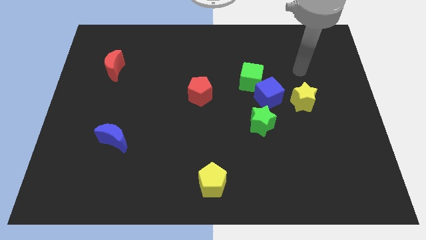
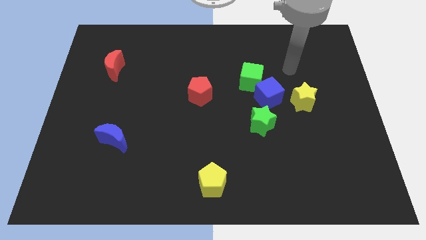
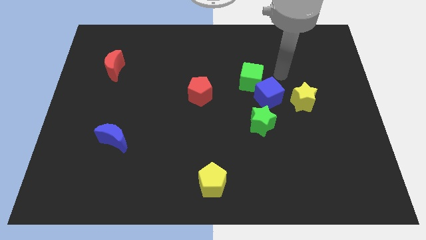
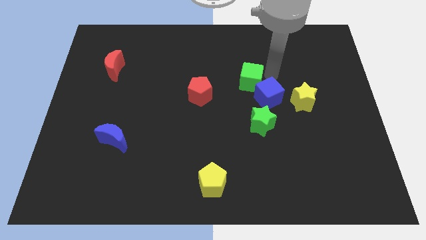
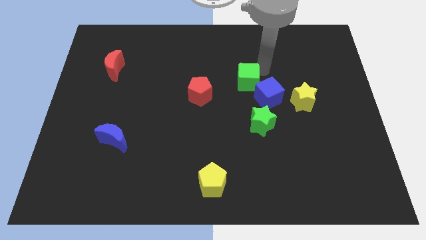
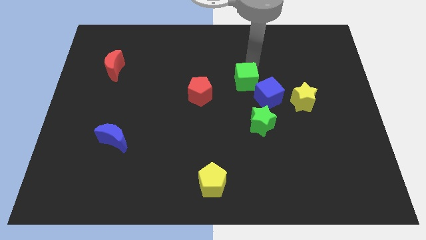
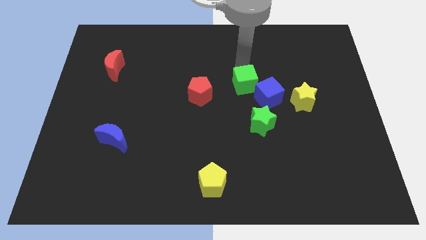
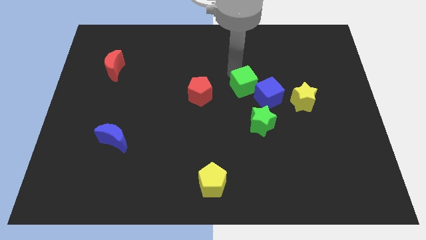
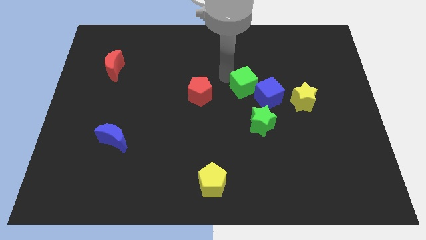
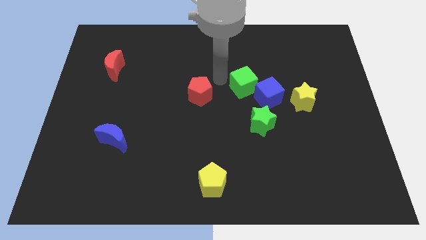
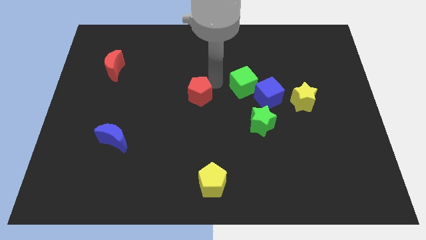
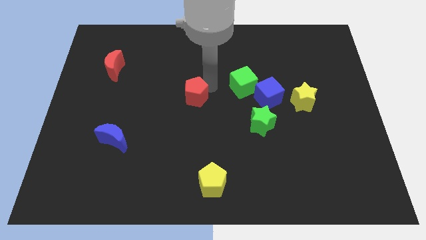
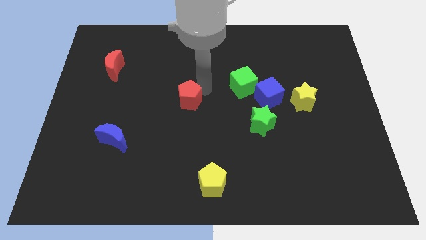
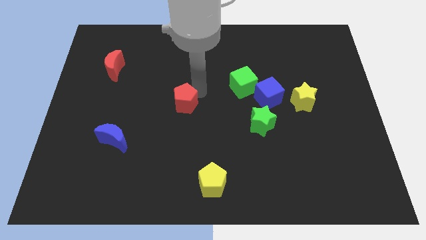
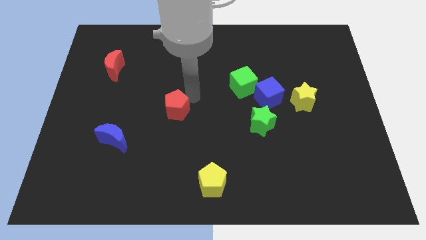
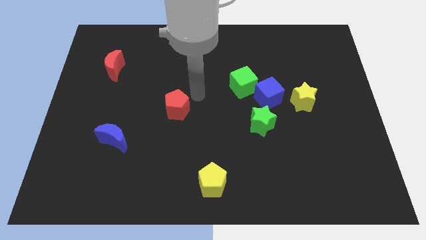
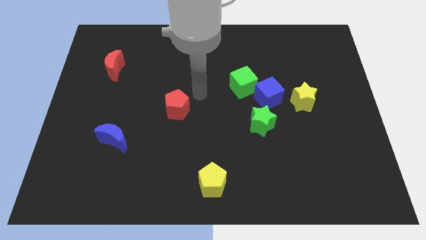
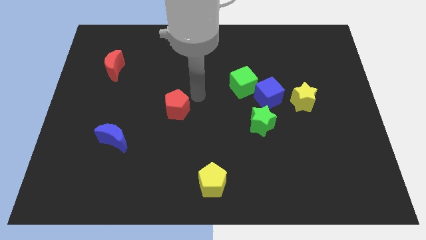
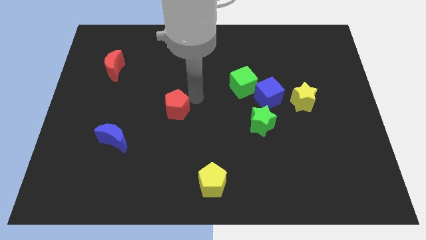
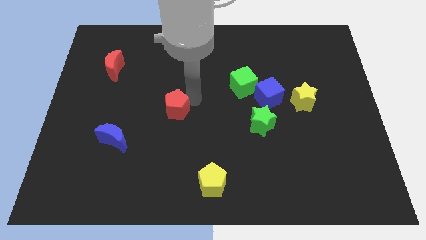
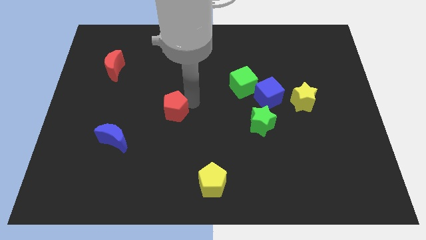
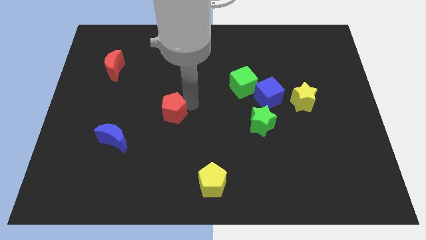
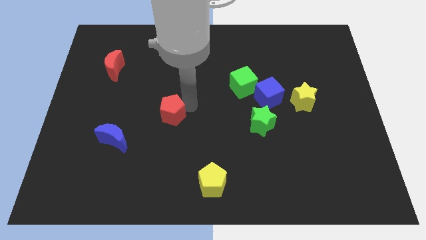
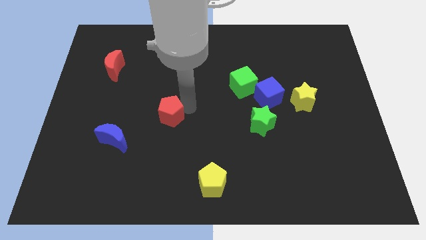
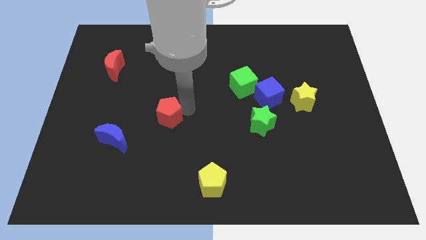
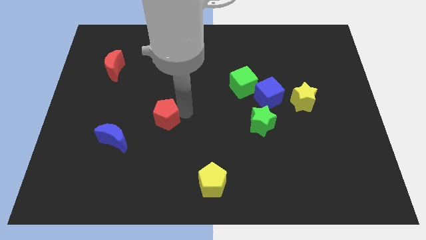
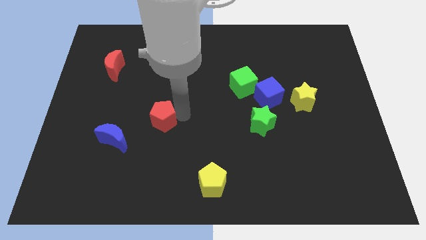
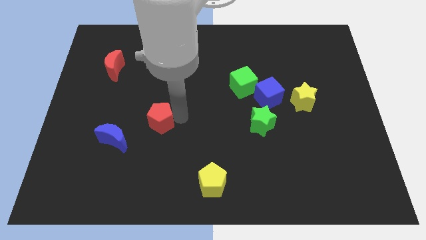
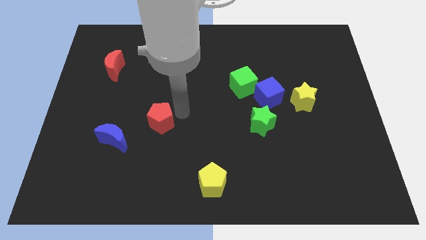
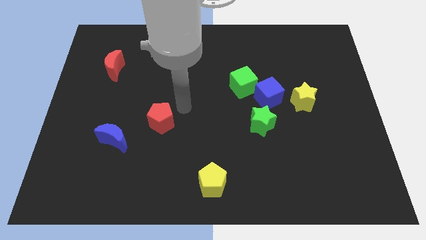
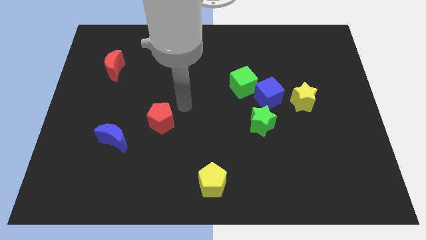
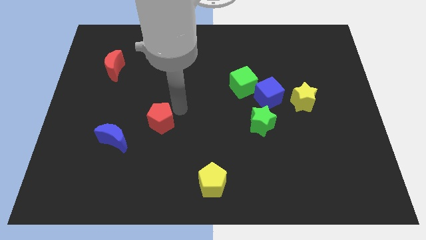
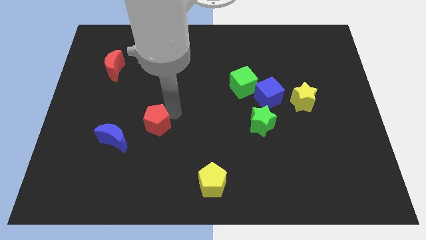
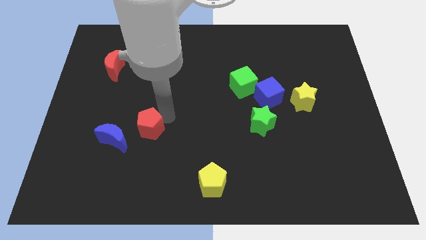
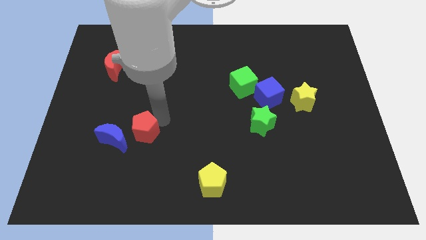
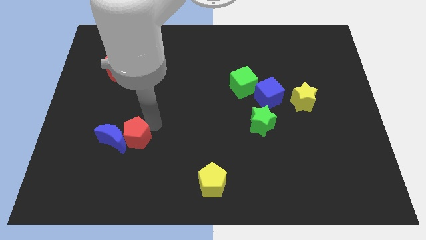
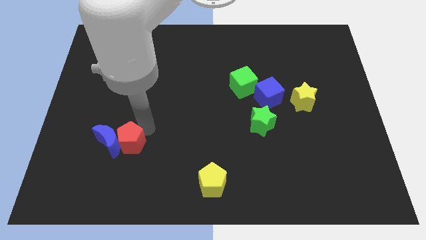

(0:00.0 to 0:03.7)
move the red pentagon diagonally down and left

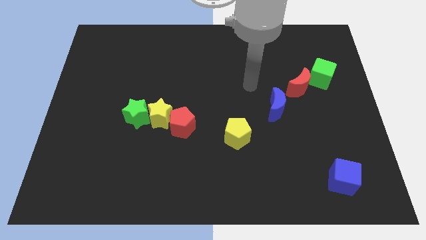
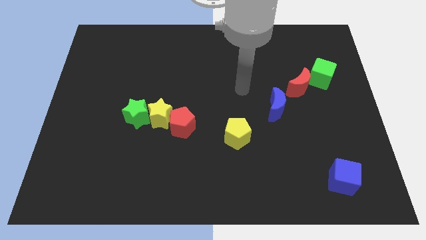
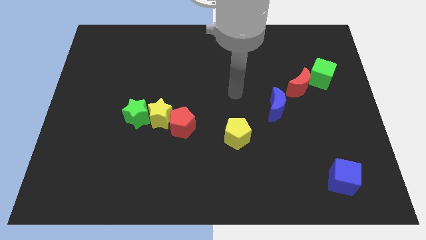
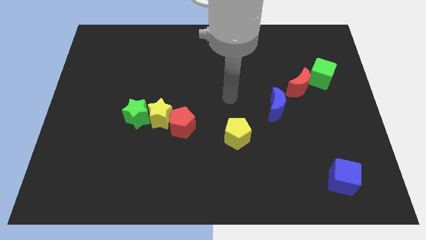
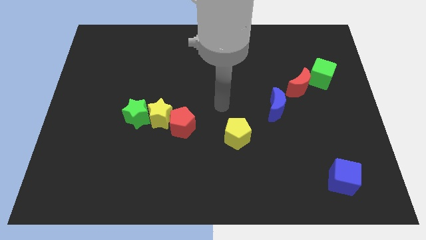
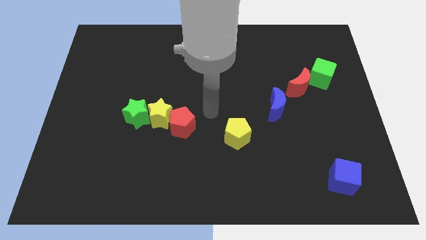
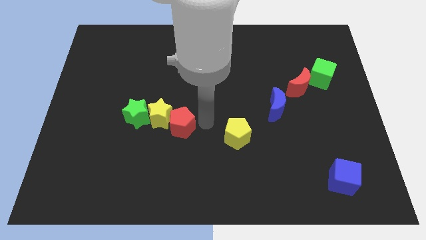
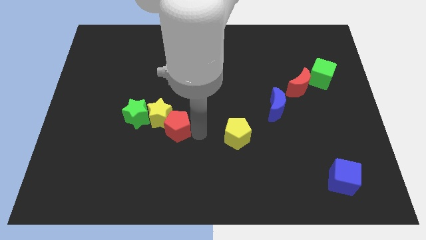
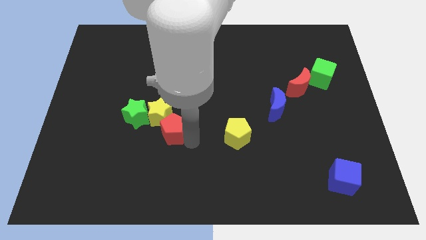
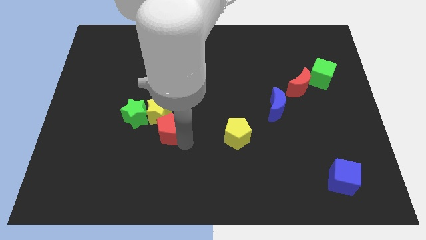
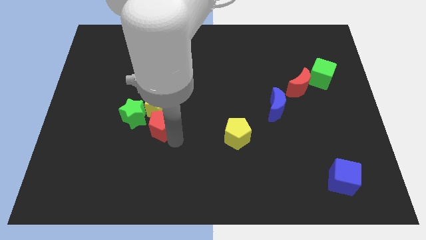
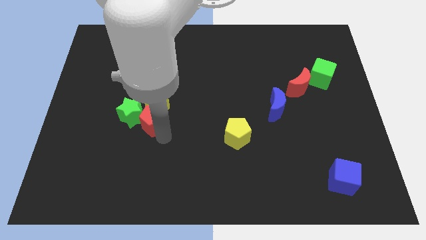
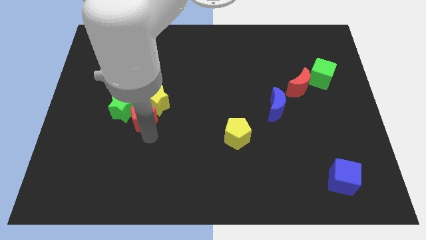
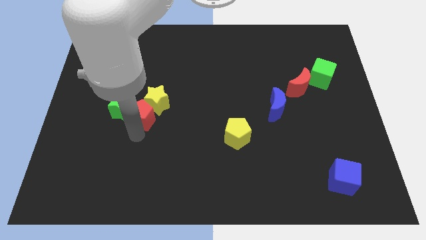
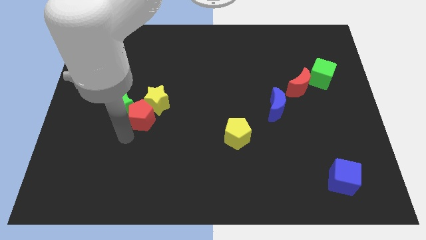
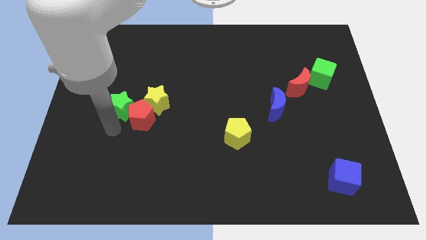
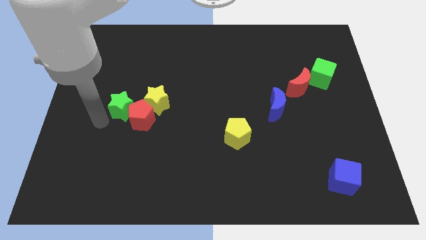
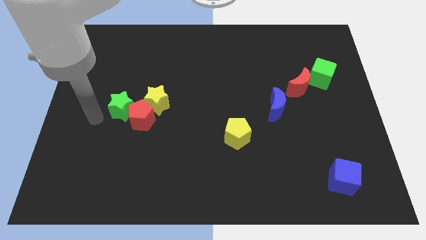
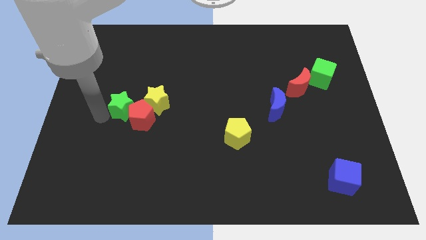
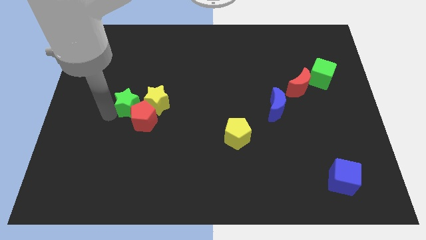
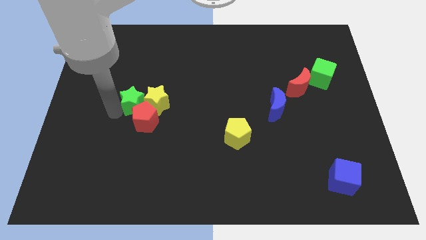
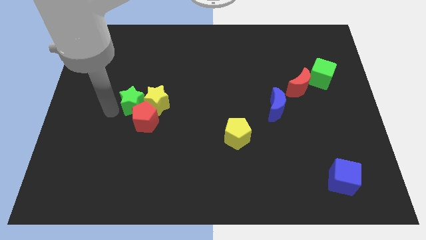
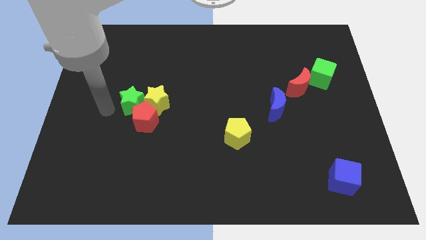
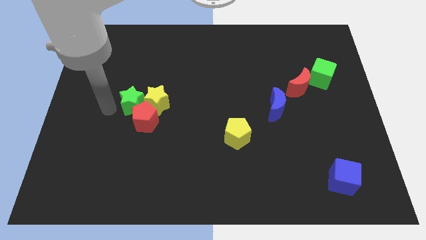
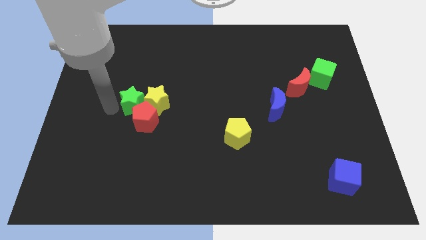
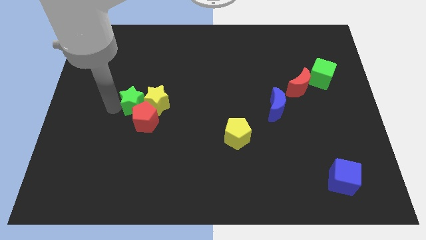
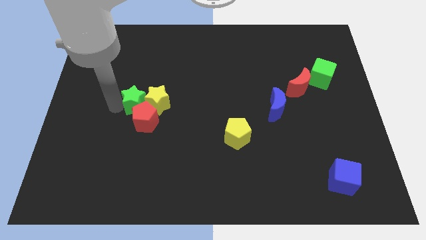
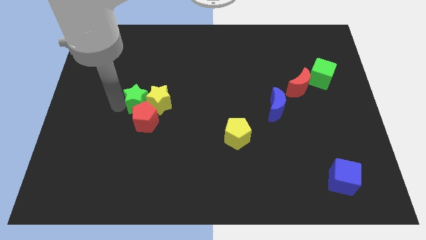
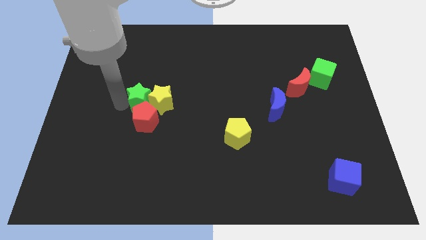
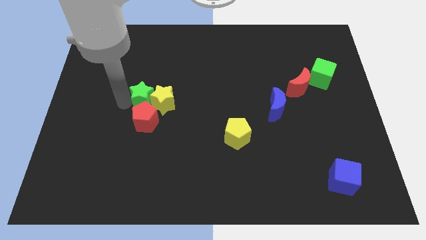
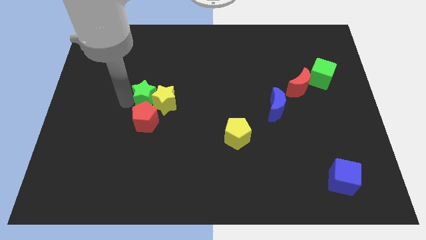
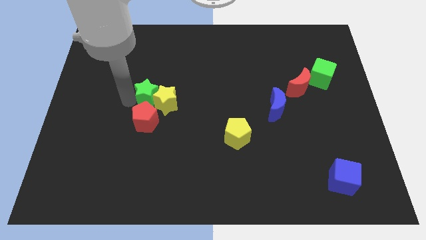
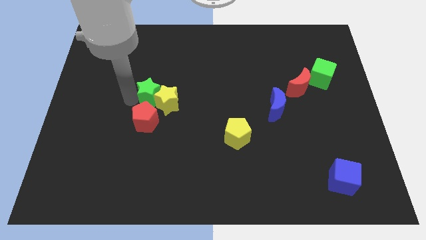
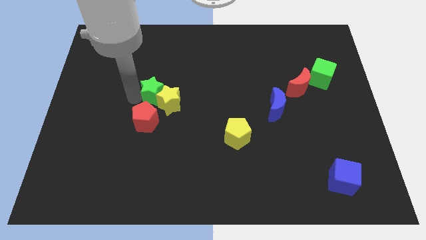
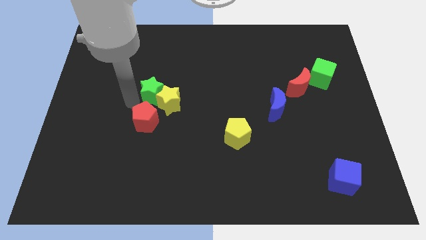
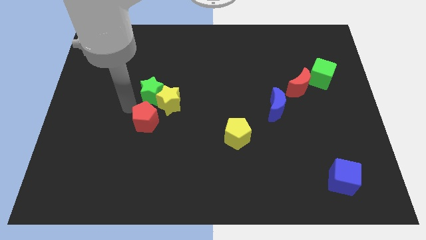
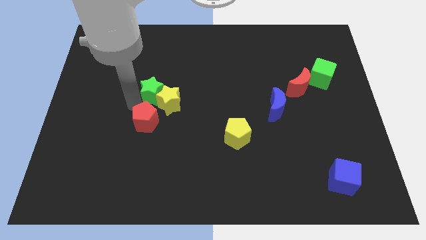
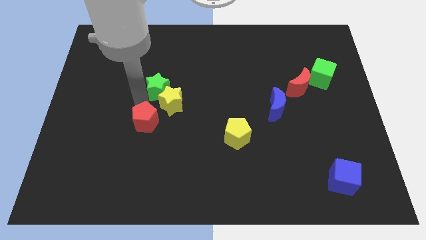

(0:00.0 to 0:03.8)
slide the green star up and to the right a little
